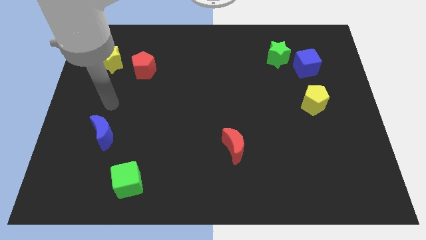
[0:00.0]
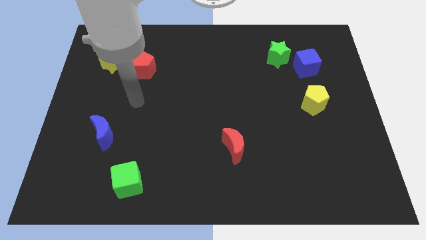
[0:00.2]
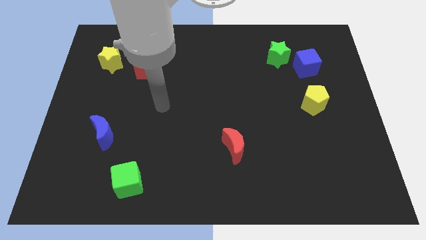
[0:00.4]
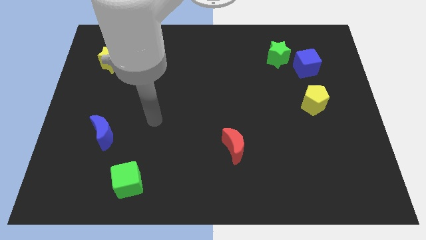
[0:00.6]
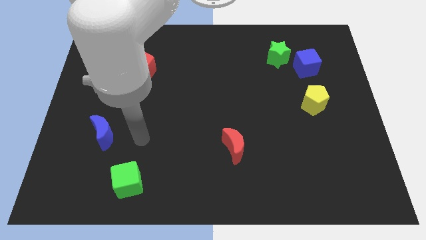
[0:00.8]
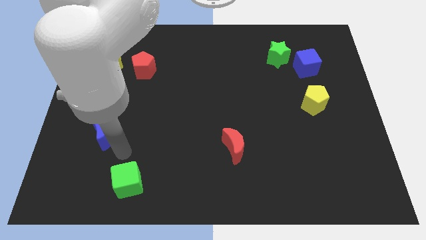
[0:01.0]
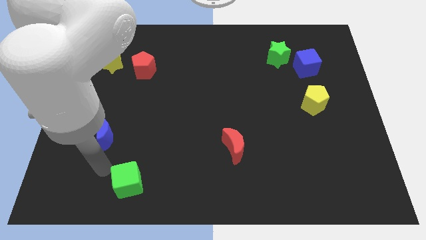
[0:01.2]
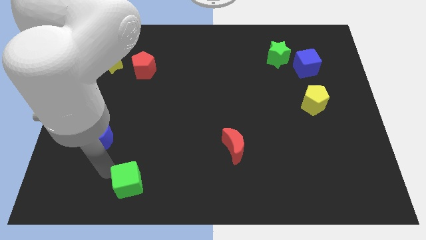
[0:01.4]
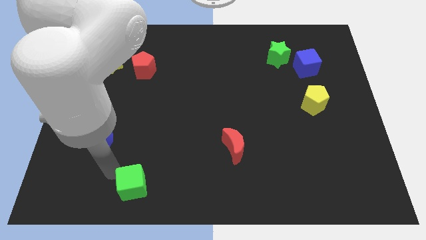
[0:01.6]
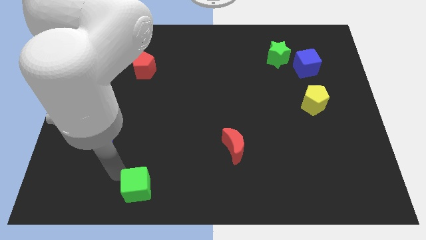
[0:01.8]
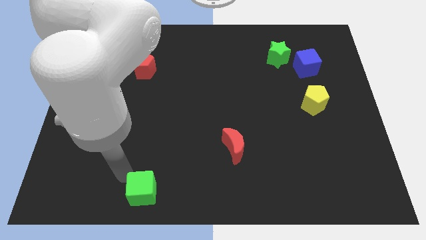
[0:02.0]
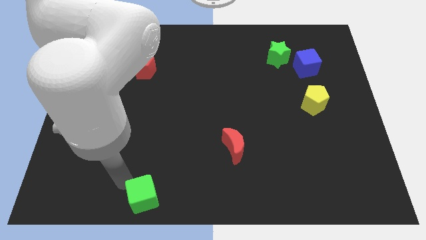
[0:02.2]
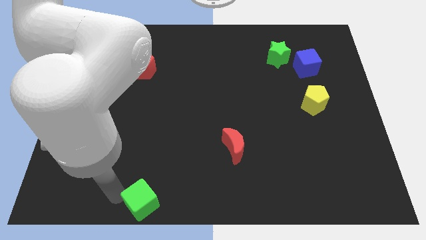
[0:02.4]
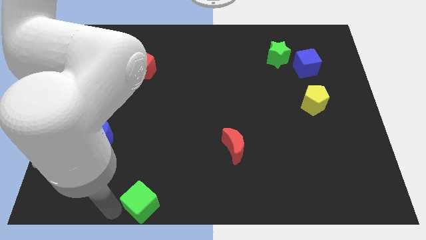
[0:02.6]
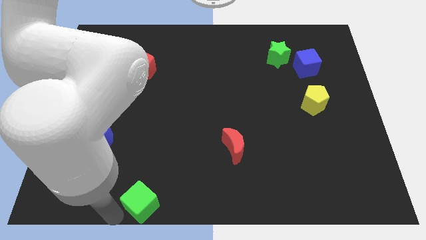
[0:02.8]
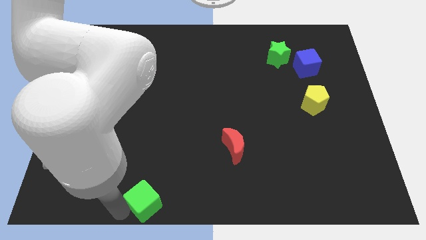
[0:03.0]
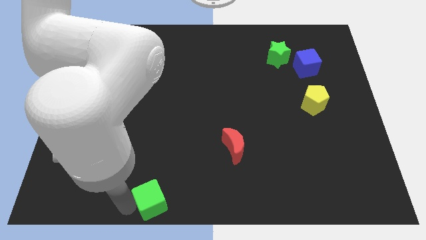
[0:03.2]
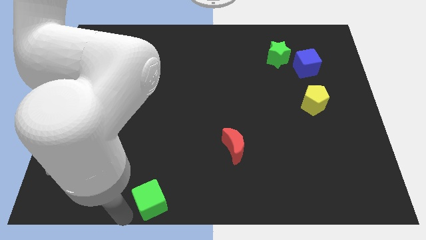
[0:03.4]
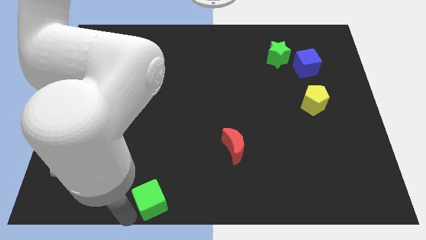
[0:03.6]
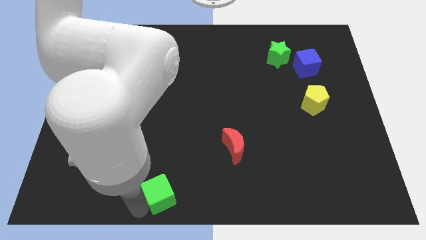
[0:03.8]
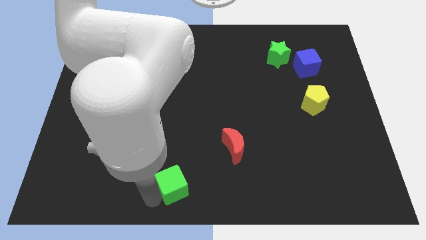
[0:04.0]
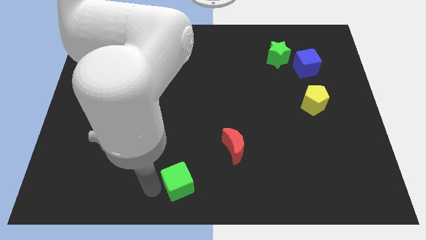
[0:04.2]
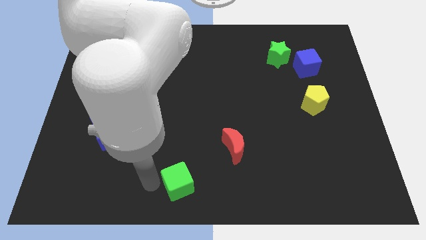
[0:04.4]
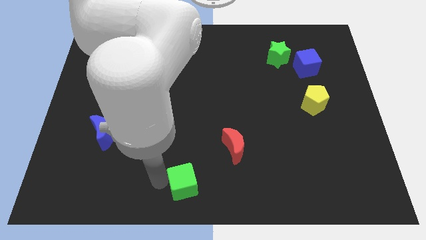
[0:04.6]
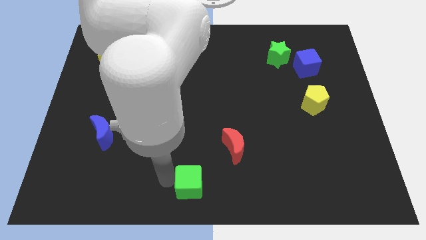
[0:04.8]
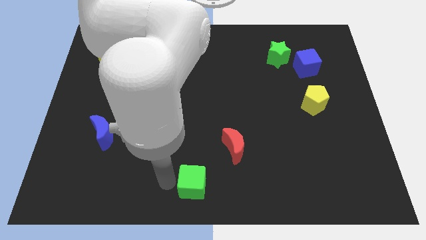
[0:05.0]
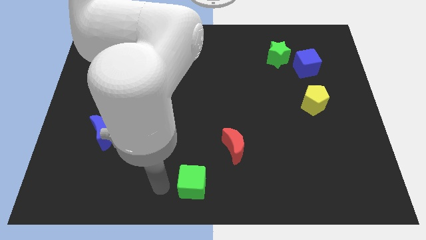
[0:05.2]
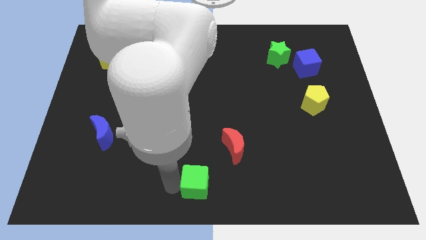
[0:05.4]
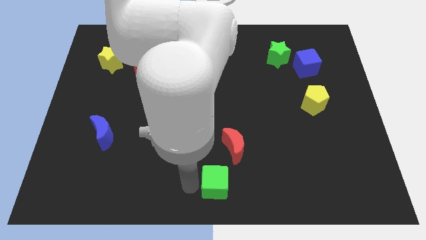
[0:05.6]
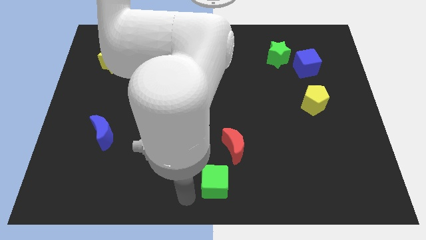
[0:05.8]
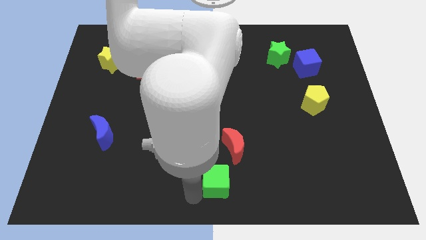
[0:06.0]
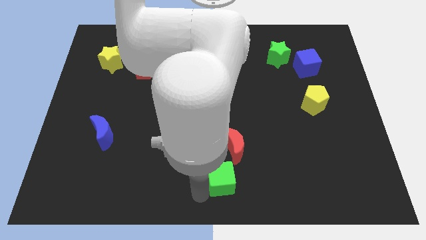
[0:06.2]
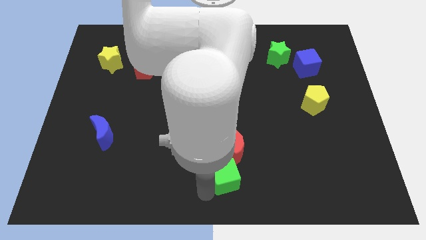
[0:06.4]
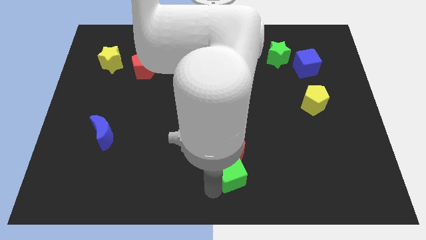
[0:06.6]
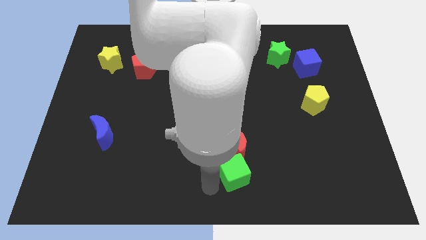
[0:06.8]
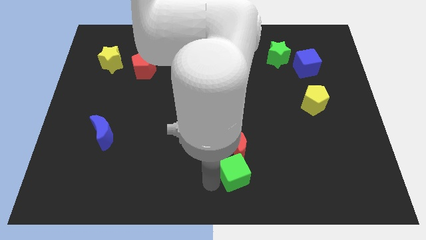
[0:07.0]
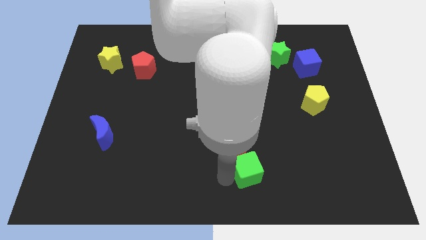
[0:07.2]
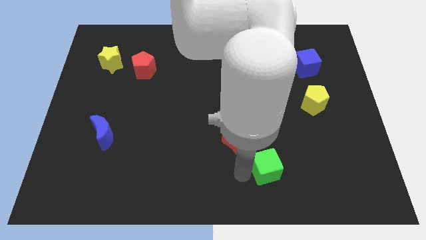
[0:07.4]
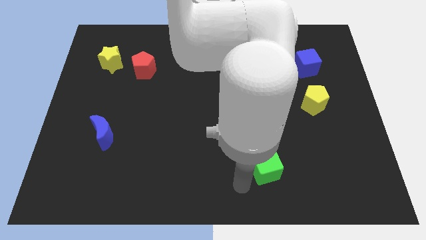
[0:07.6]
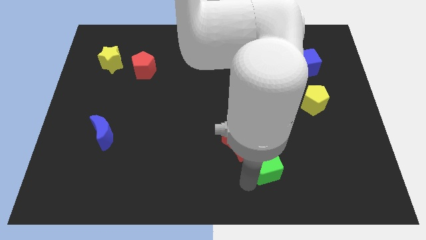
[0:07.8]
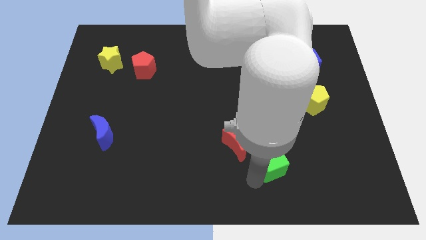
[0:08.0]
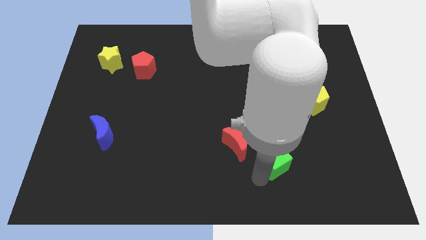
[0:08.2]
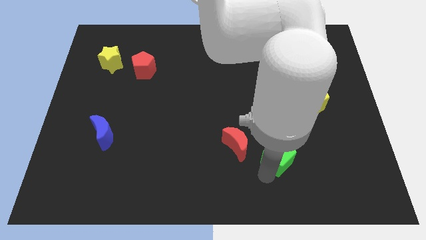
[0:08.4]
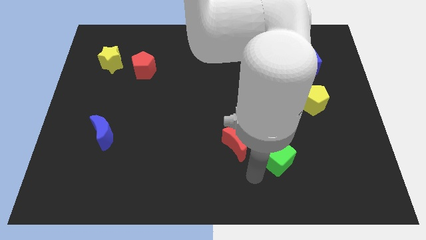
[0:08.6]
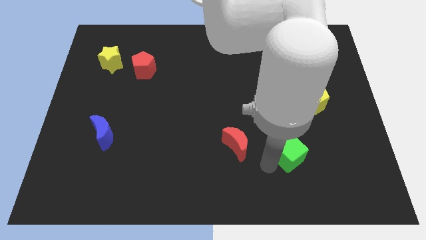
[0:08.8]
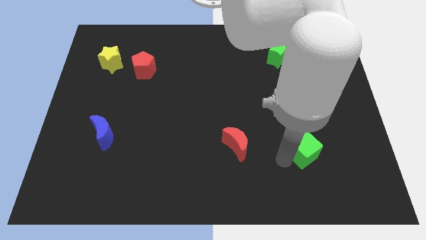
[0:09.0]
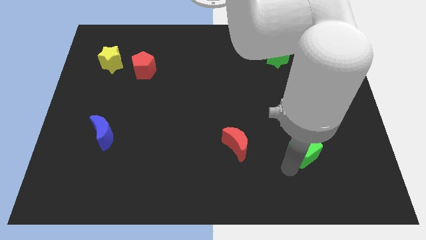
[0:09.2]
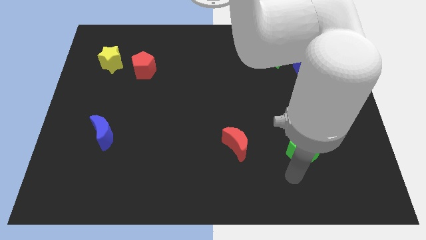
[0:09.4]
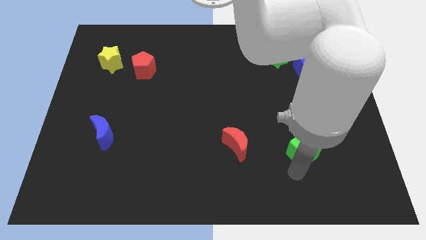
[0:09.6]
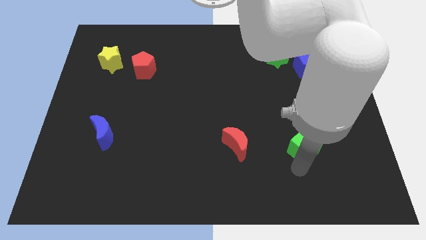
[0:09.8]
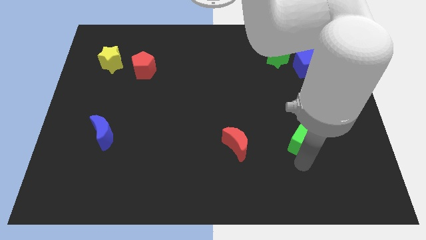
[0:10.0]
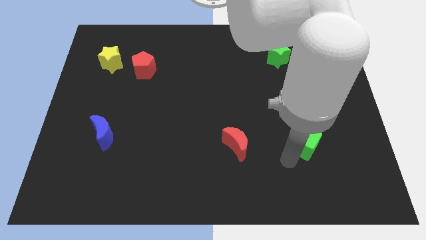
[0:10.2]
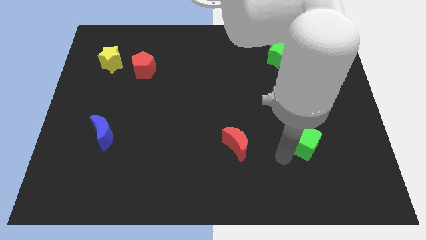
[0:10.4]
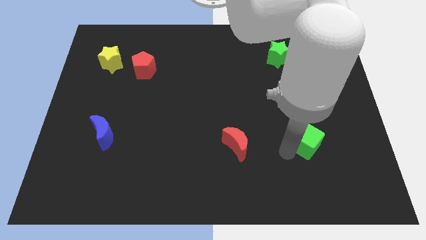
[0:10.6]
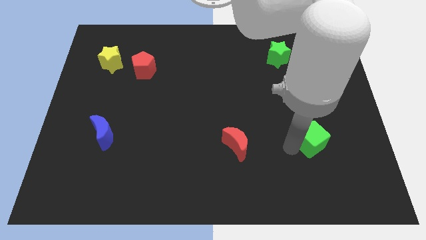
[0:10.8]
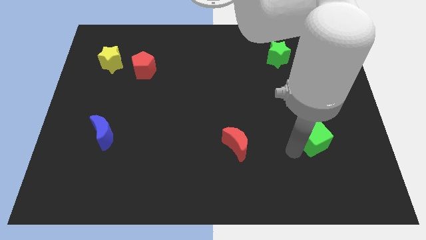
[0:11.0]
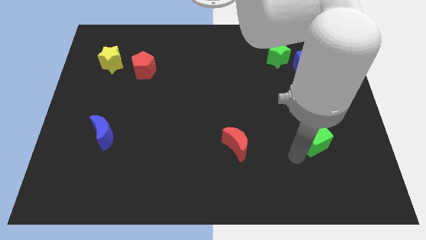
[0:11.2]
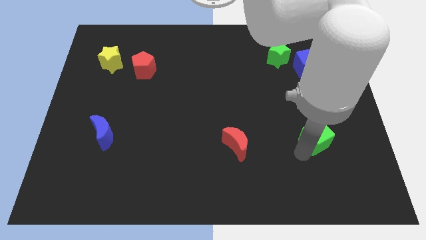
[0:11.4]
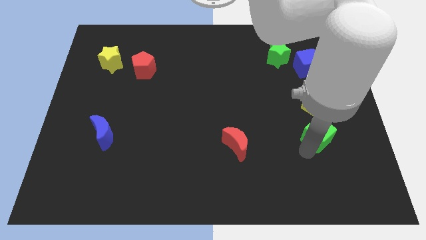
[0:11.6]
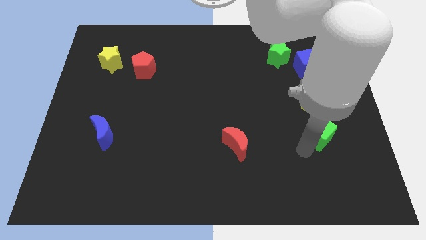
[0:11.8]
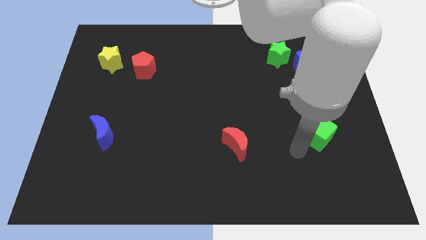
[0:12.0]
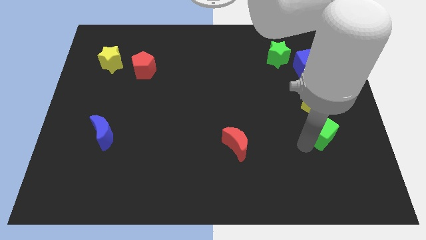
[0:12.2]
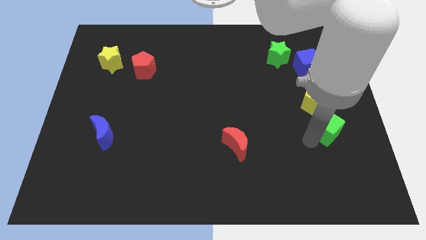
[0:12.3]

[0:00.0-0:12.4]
push the green cube diagonally down and to the right of the yellow pentagon

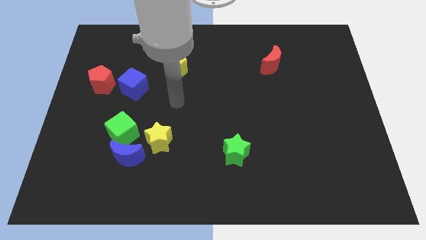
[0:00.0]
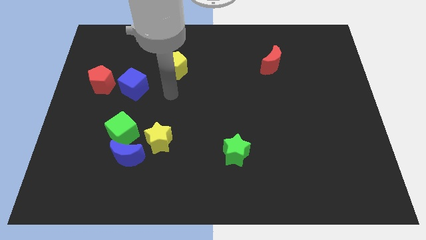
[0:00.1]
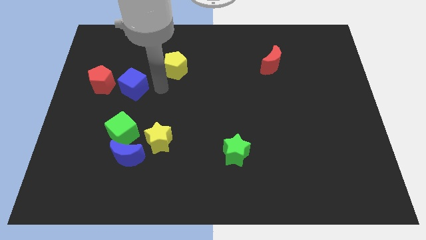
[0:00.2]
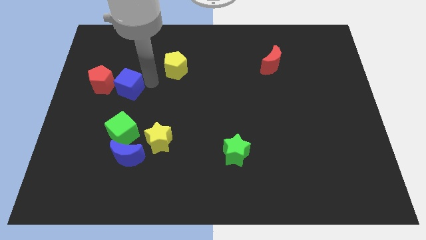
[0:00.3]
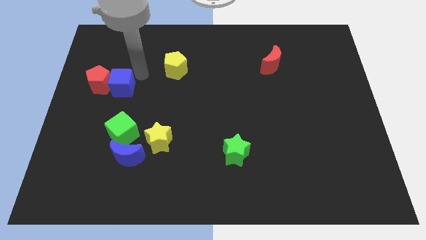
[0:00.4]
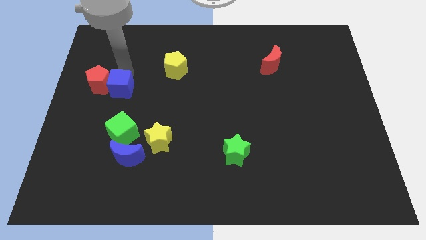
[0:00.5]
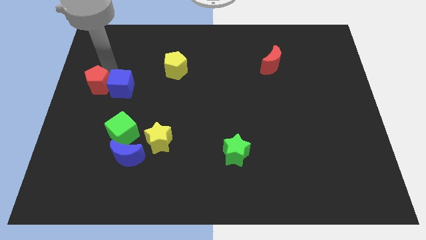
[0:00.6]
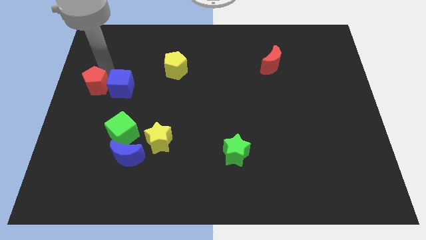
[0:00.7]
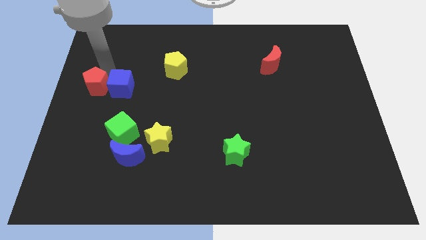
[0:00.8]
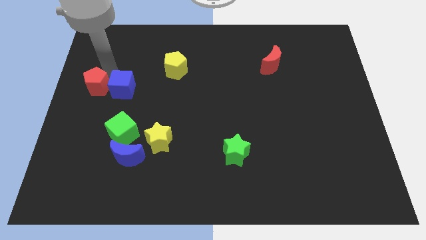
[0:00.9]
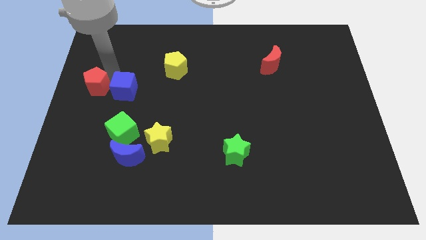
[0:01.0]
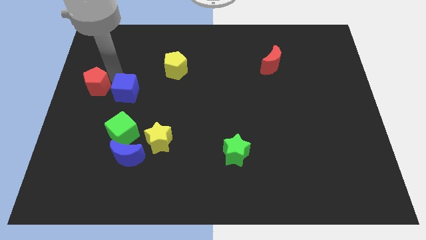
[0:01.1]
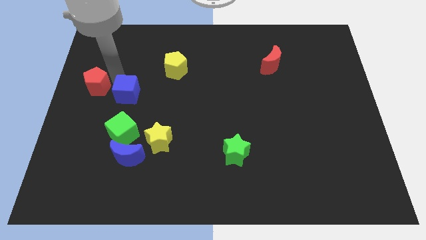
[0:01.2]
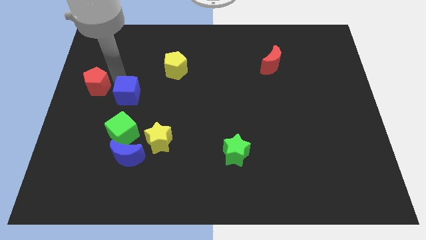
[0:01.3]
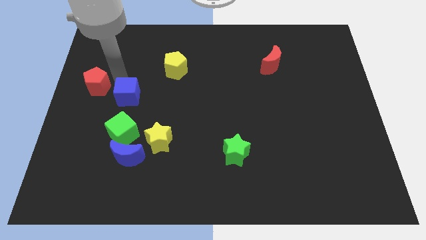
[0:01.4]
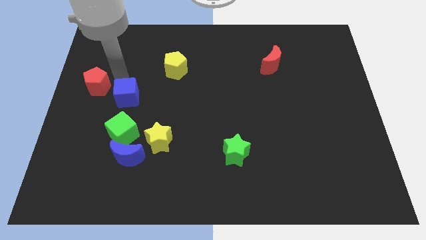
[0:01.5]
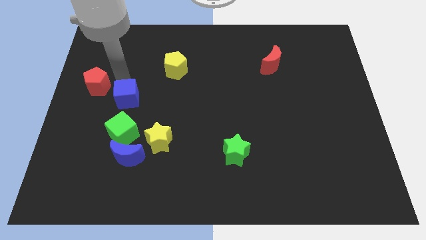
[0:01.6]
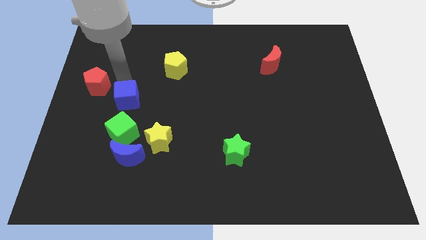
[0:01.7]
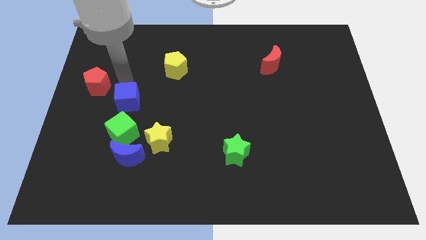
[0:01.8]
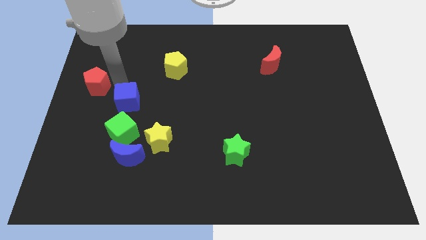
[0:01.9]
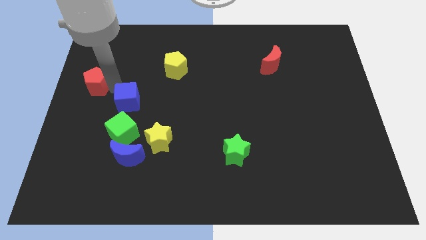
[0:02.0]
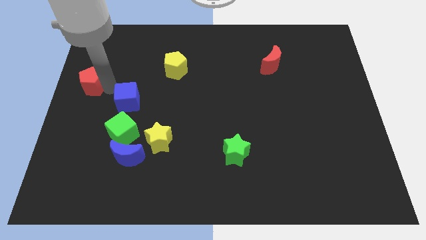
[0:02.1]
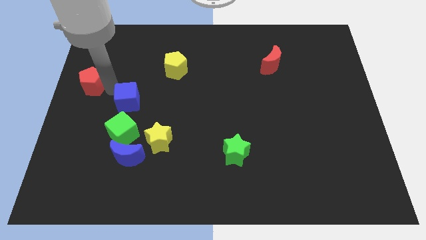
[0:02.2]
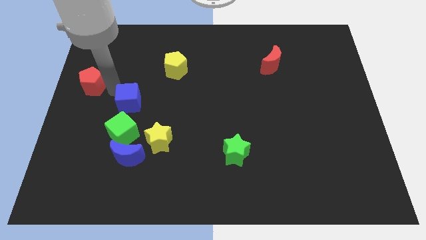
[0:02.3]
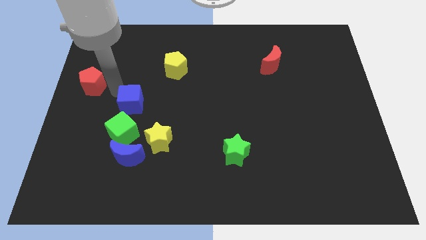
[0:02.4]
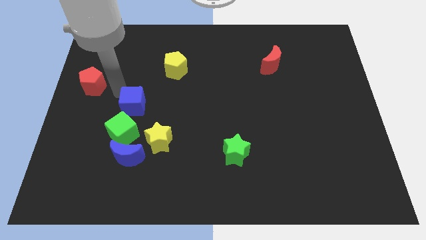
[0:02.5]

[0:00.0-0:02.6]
move the blue cube diagonally up and to the right of the green cube
